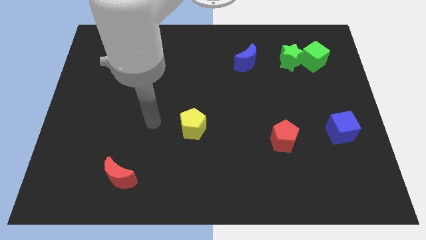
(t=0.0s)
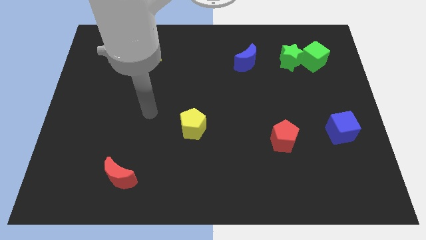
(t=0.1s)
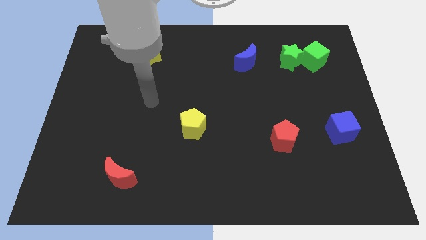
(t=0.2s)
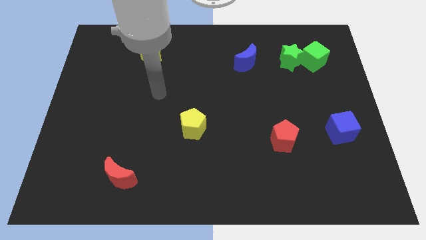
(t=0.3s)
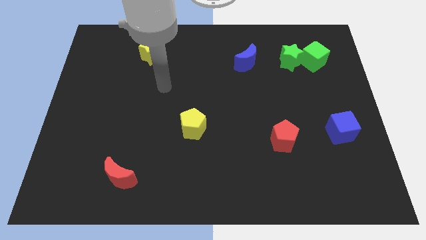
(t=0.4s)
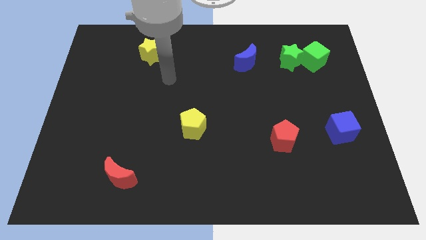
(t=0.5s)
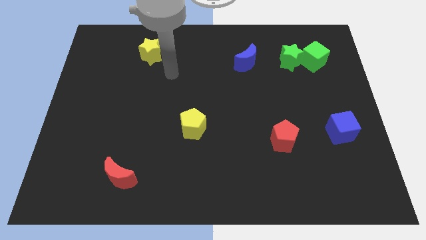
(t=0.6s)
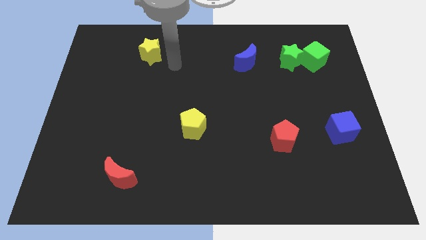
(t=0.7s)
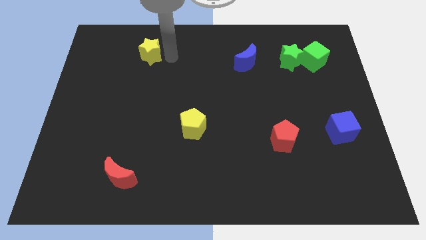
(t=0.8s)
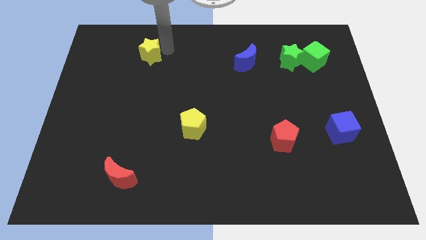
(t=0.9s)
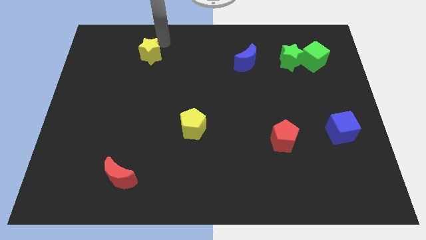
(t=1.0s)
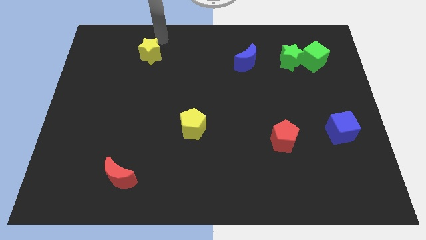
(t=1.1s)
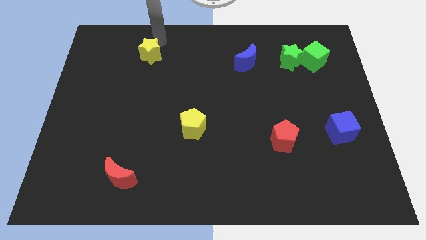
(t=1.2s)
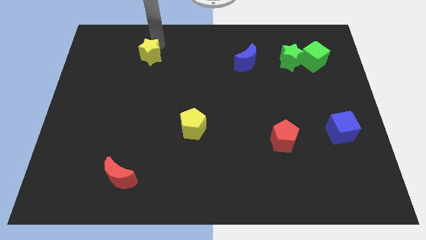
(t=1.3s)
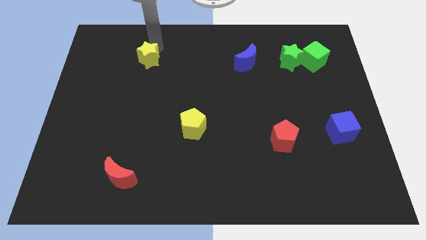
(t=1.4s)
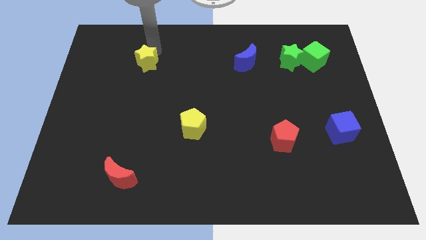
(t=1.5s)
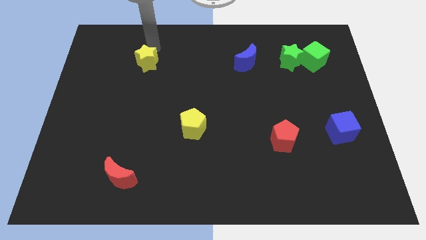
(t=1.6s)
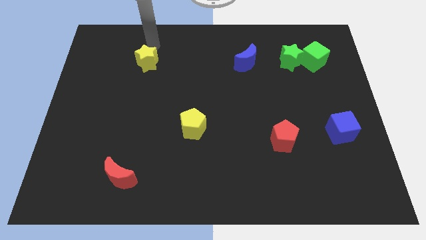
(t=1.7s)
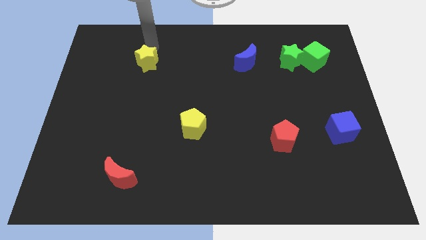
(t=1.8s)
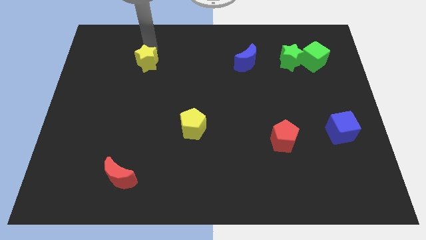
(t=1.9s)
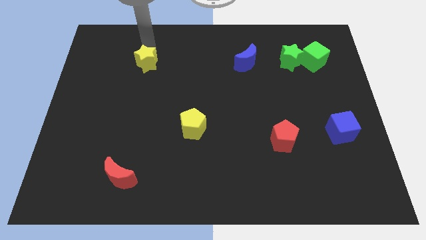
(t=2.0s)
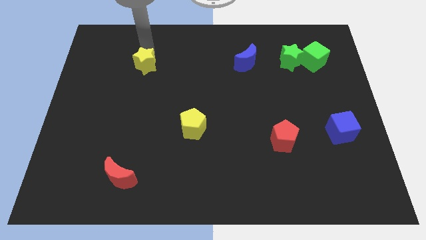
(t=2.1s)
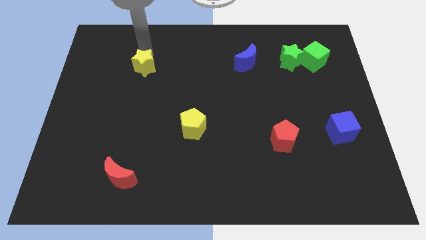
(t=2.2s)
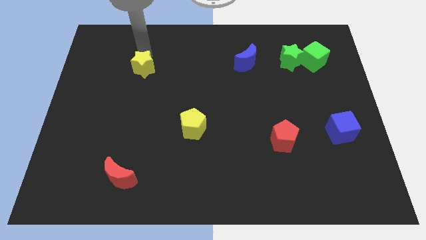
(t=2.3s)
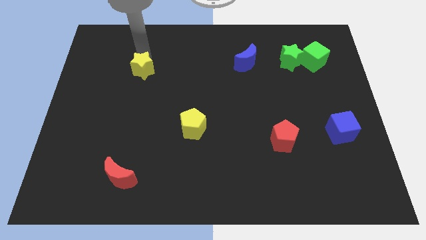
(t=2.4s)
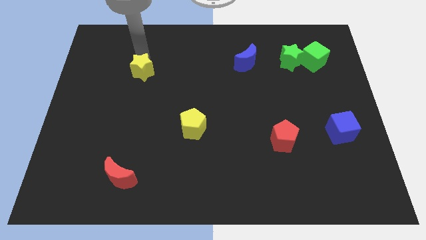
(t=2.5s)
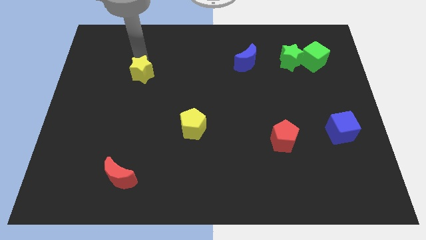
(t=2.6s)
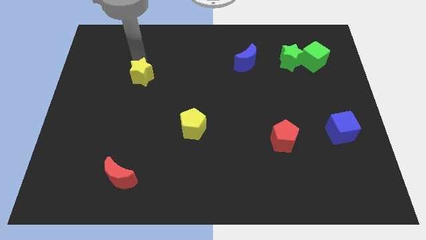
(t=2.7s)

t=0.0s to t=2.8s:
slightly slide the yellow star downwards

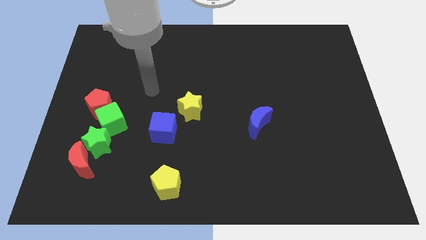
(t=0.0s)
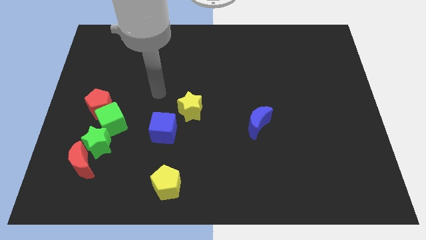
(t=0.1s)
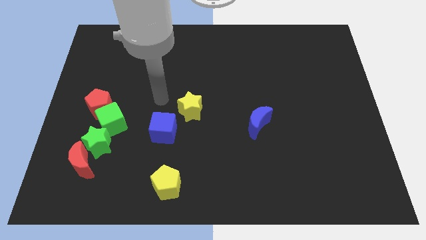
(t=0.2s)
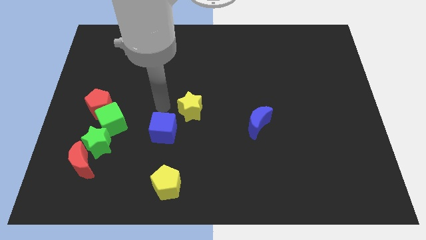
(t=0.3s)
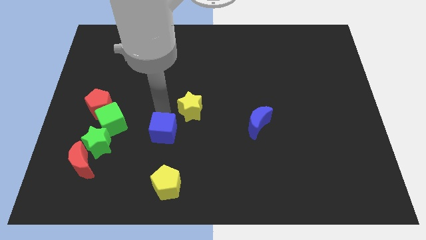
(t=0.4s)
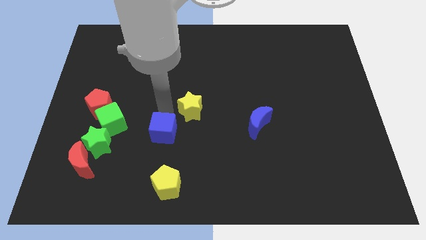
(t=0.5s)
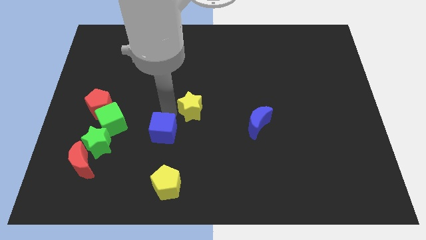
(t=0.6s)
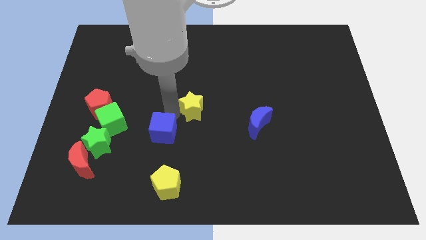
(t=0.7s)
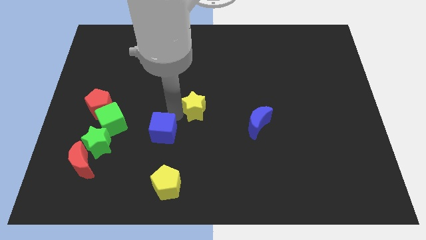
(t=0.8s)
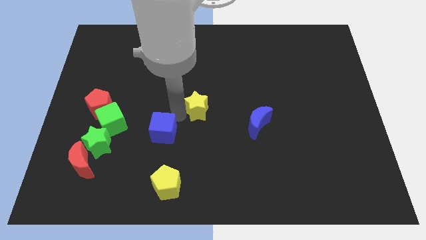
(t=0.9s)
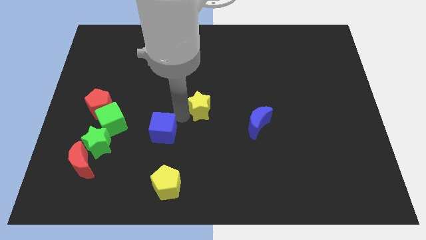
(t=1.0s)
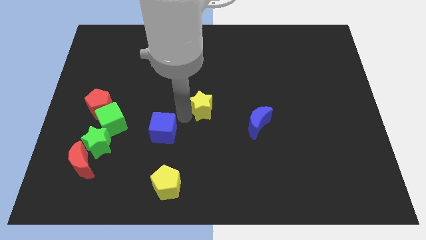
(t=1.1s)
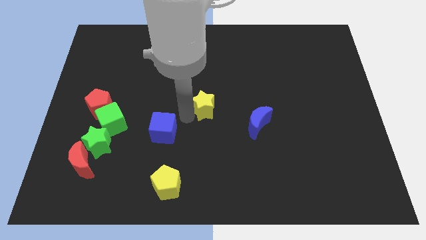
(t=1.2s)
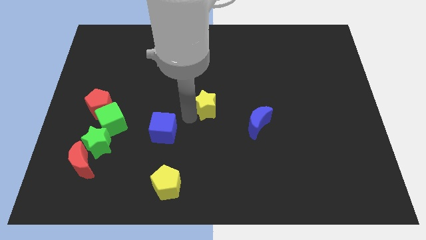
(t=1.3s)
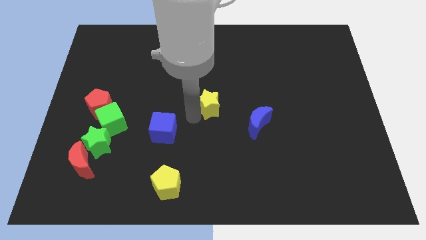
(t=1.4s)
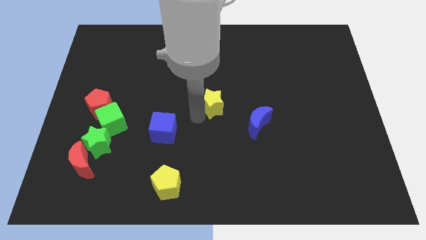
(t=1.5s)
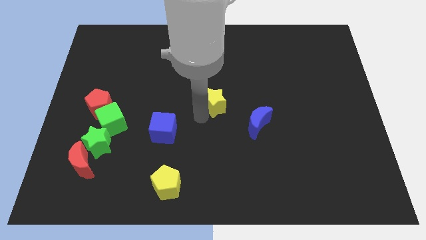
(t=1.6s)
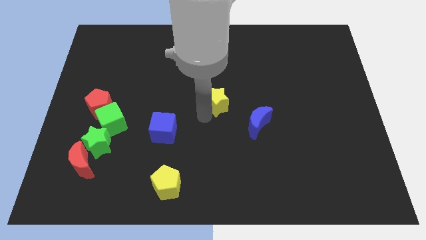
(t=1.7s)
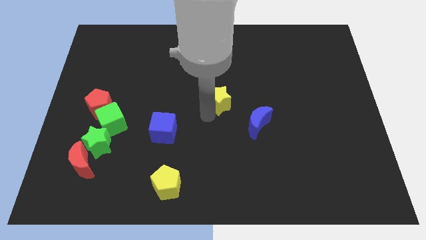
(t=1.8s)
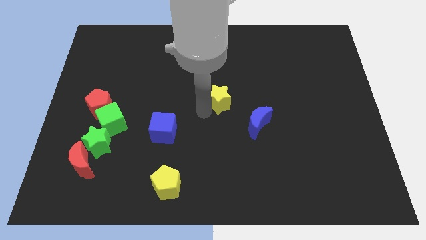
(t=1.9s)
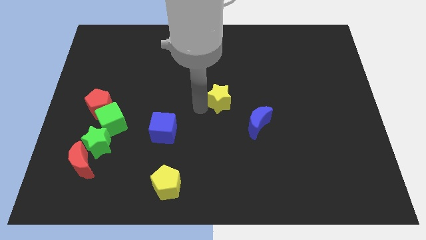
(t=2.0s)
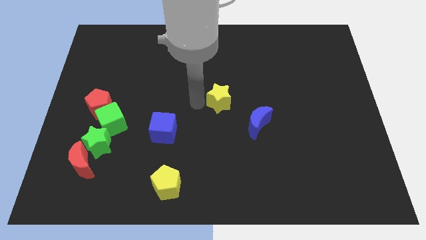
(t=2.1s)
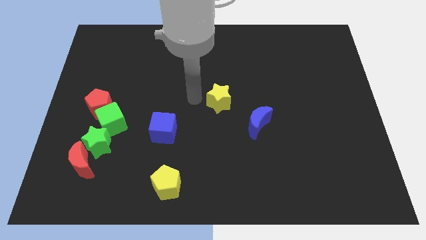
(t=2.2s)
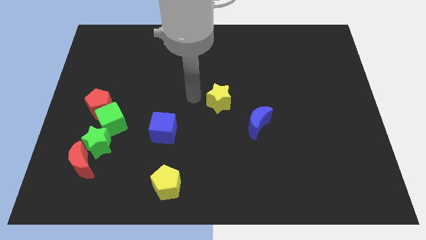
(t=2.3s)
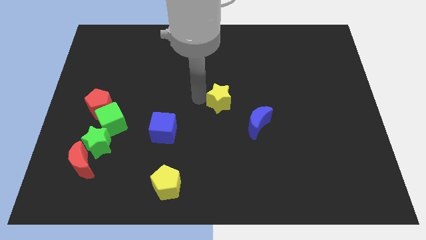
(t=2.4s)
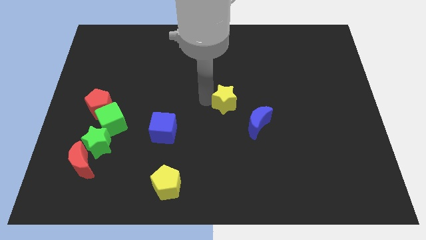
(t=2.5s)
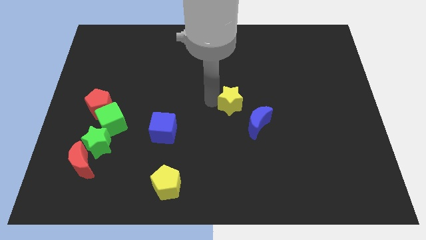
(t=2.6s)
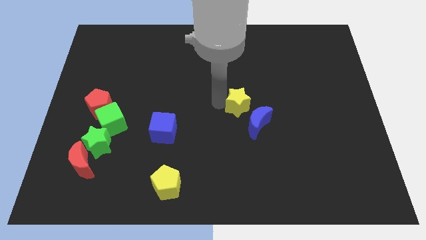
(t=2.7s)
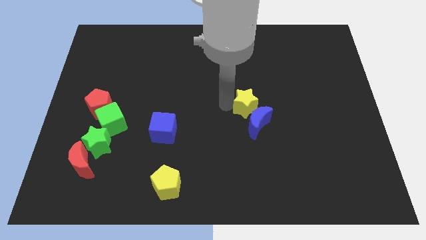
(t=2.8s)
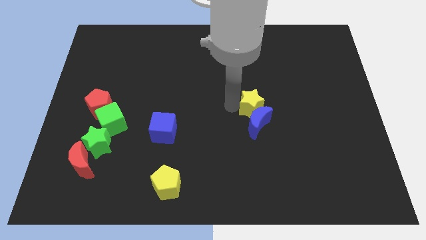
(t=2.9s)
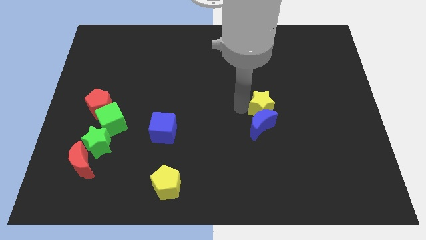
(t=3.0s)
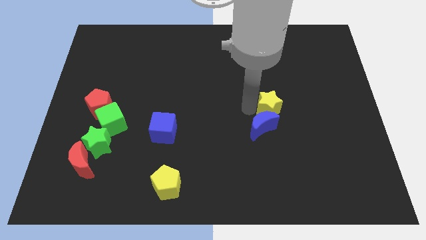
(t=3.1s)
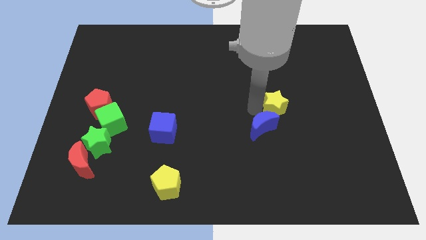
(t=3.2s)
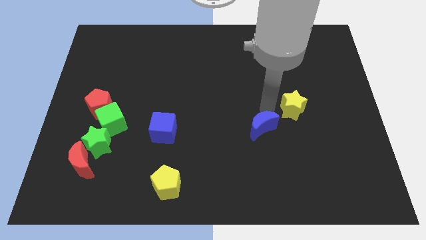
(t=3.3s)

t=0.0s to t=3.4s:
move the yellow star right

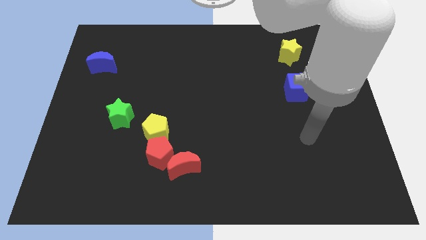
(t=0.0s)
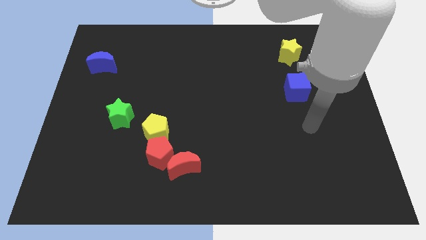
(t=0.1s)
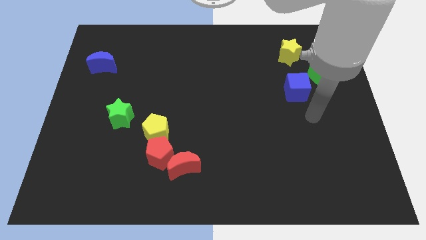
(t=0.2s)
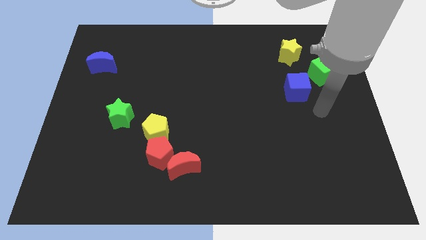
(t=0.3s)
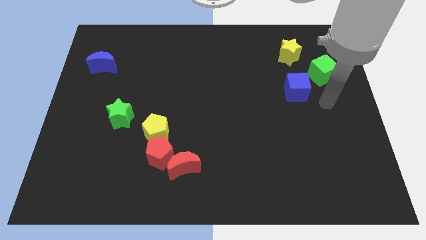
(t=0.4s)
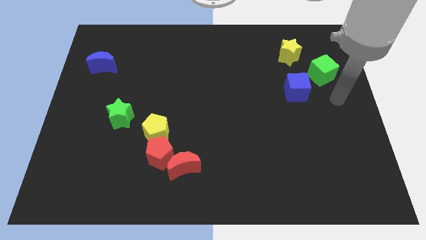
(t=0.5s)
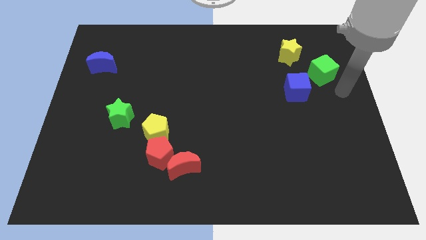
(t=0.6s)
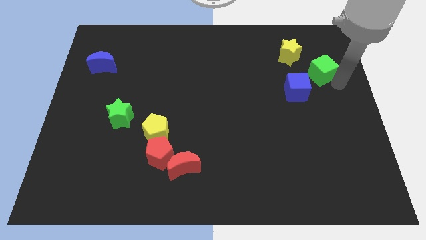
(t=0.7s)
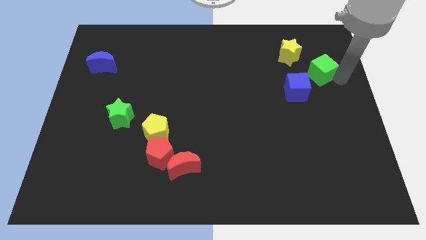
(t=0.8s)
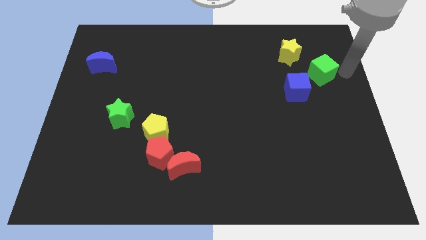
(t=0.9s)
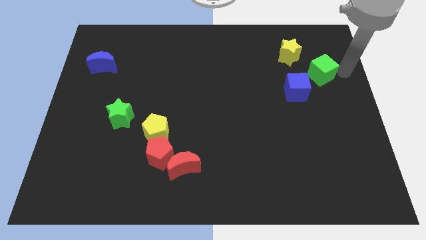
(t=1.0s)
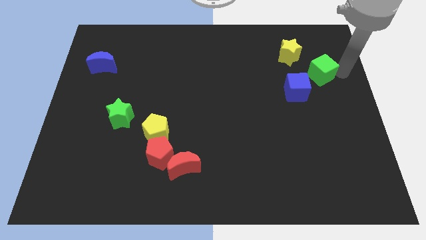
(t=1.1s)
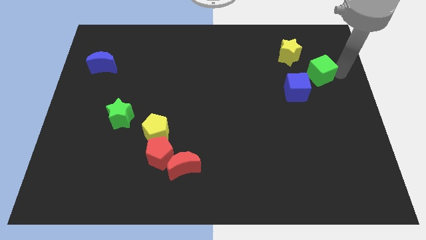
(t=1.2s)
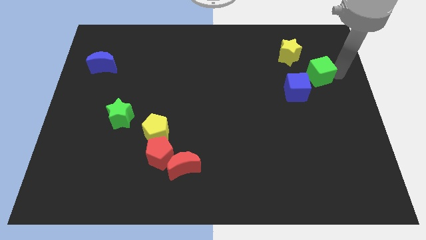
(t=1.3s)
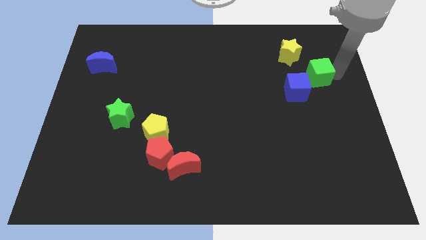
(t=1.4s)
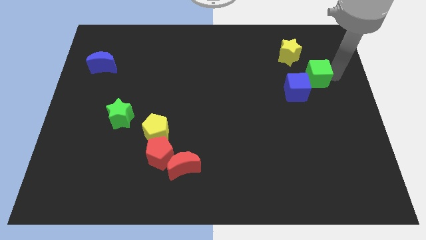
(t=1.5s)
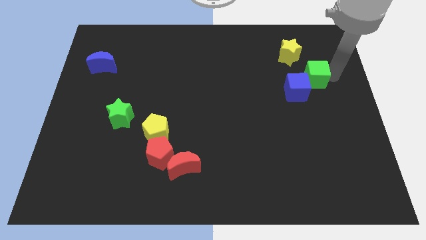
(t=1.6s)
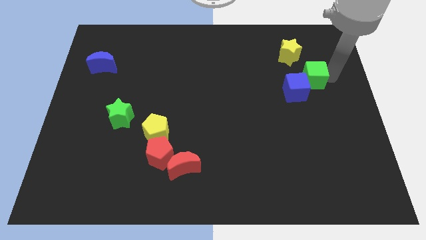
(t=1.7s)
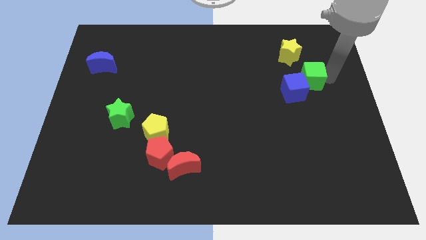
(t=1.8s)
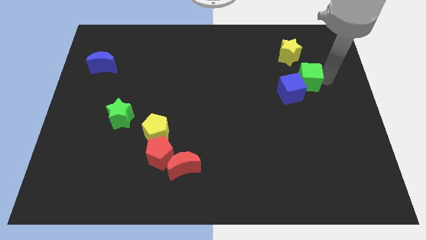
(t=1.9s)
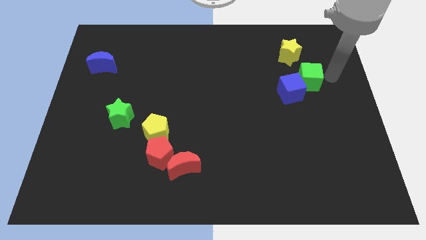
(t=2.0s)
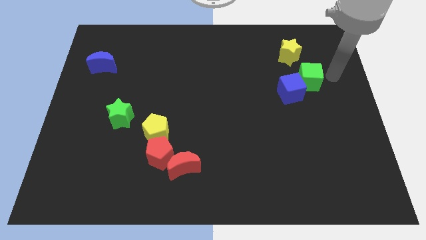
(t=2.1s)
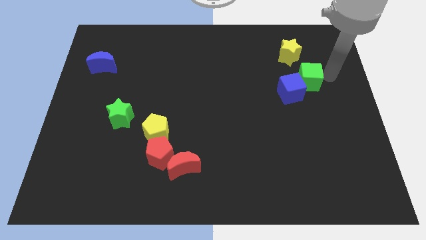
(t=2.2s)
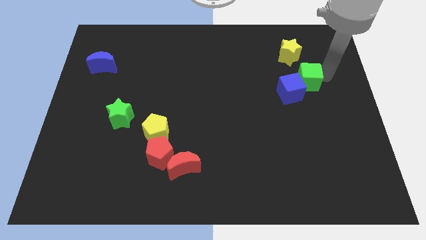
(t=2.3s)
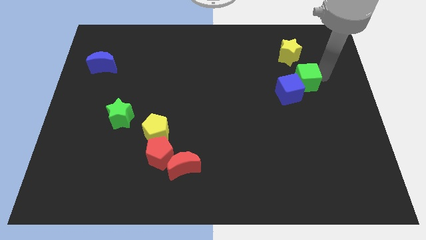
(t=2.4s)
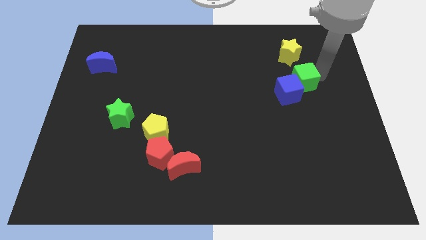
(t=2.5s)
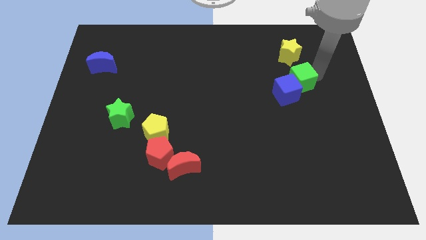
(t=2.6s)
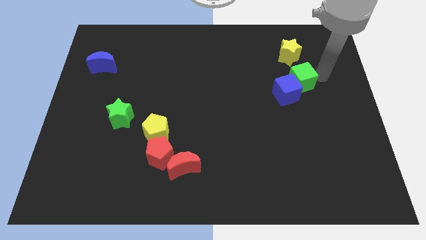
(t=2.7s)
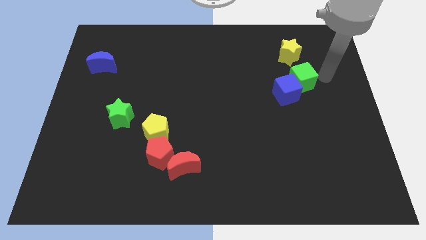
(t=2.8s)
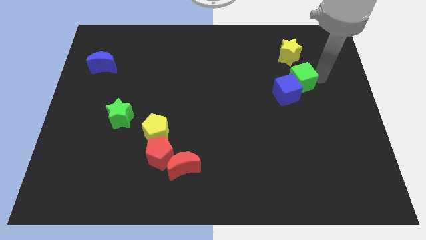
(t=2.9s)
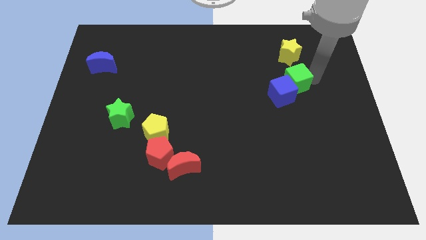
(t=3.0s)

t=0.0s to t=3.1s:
move the green cube downwards and left a bit
